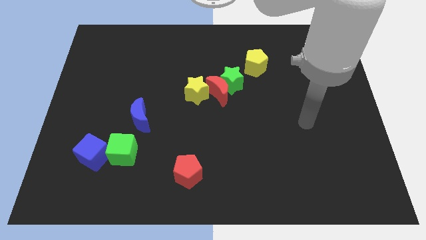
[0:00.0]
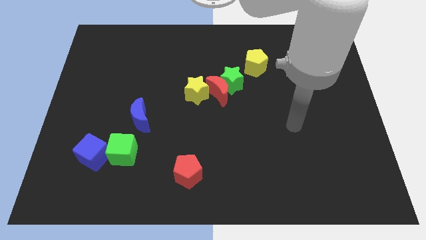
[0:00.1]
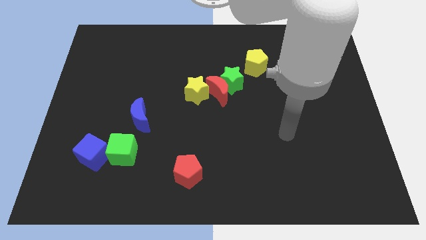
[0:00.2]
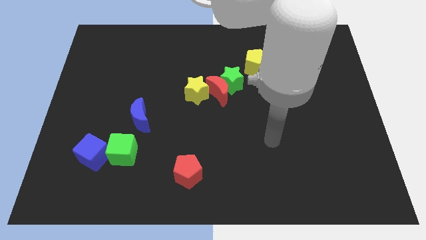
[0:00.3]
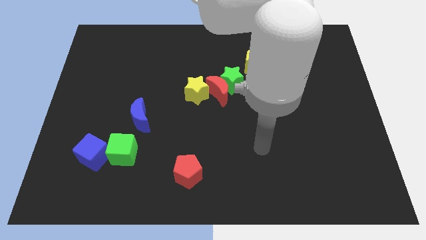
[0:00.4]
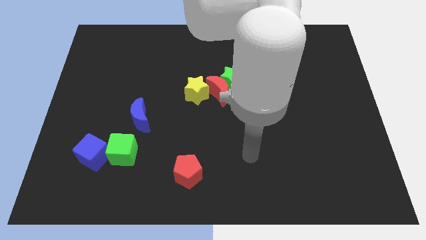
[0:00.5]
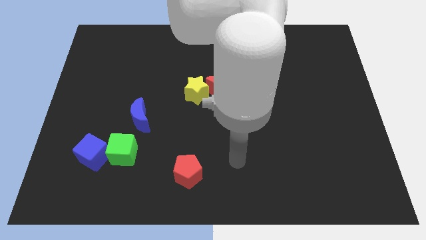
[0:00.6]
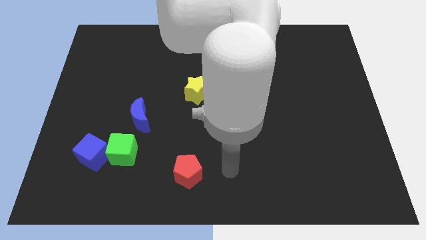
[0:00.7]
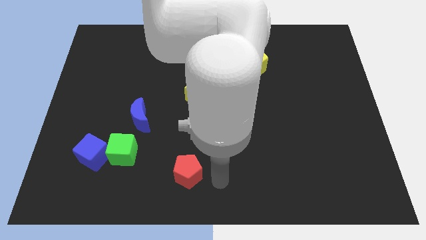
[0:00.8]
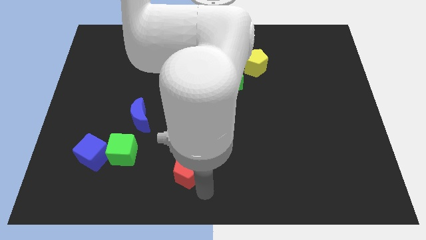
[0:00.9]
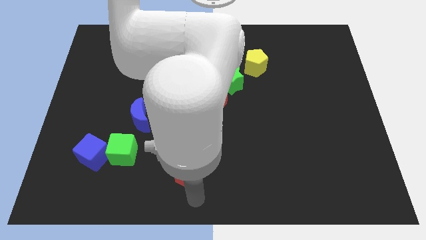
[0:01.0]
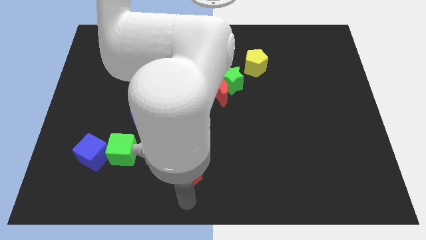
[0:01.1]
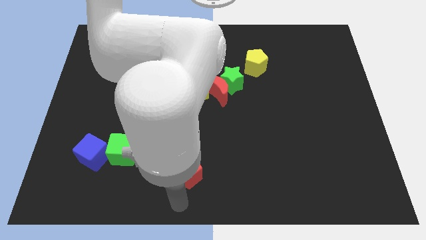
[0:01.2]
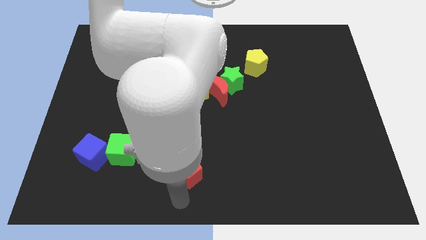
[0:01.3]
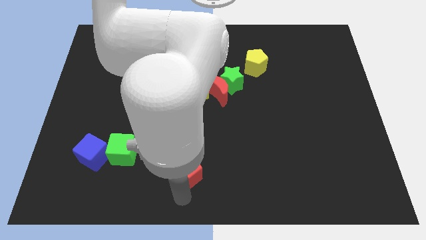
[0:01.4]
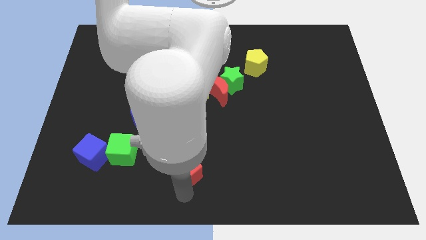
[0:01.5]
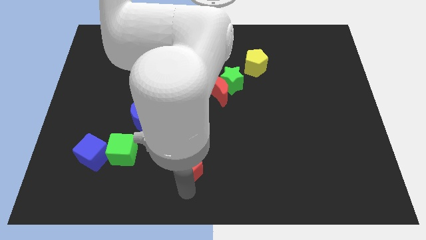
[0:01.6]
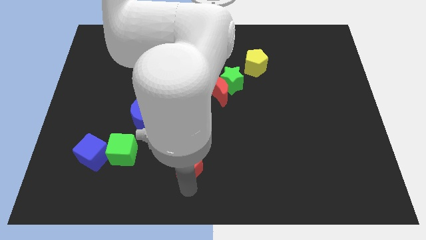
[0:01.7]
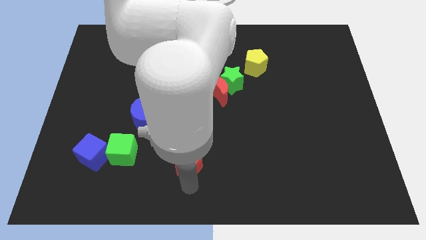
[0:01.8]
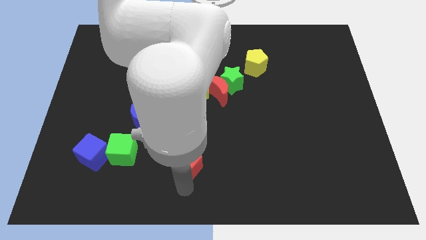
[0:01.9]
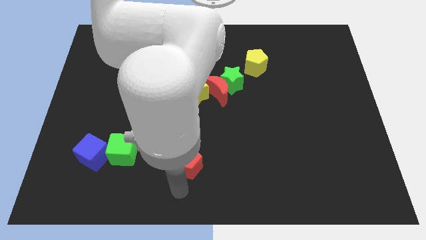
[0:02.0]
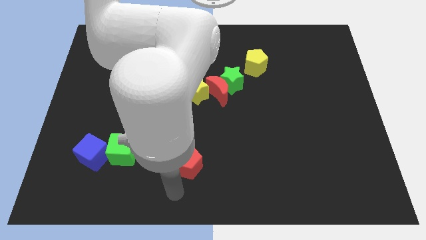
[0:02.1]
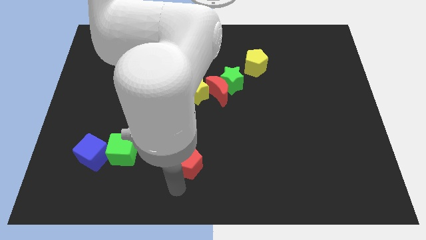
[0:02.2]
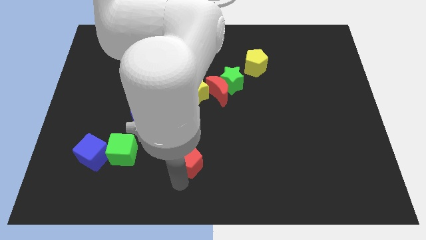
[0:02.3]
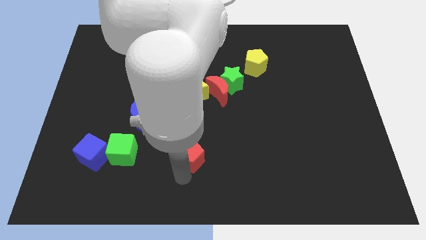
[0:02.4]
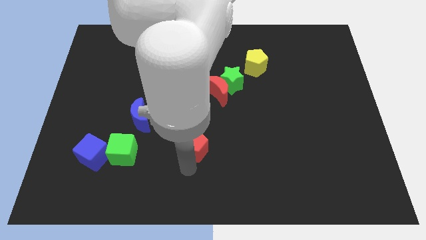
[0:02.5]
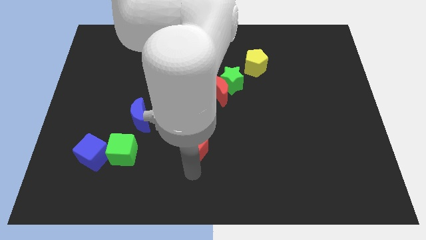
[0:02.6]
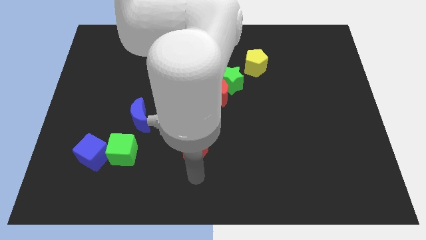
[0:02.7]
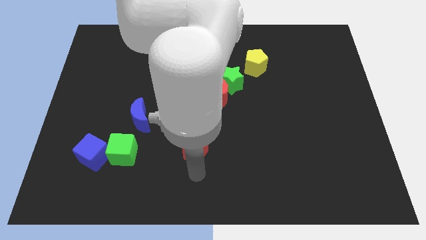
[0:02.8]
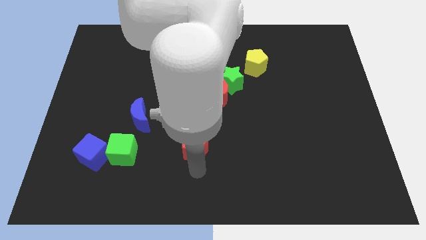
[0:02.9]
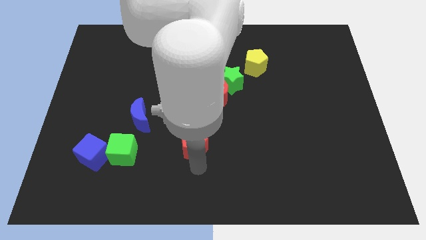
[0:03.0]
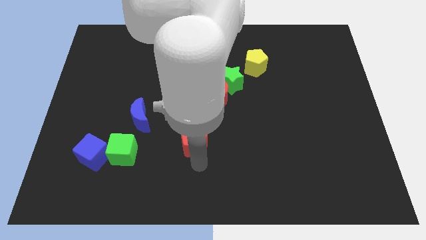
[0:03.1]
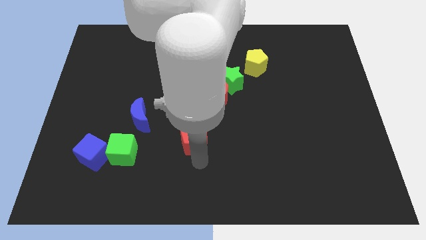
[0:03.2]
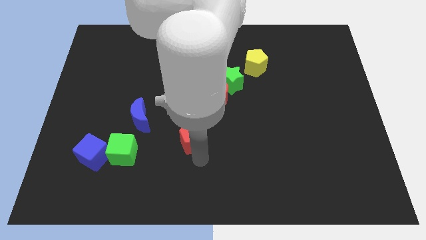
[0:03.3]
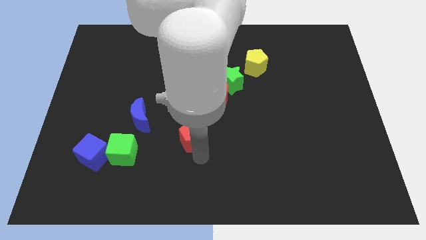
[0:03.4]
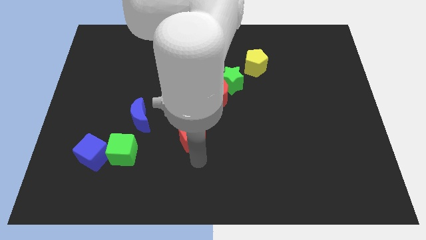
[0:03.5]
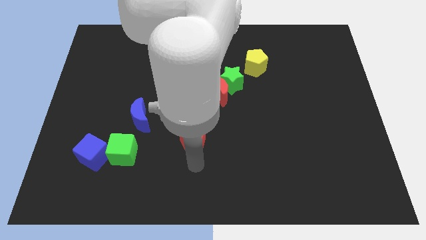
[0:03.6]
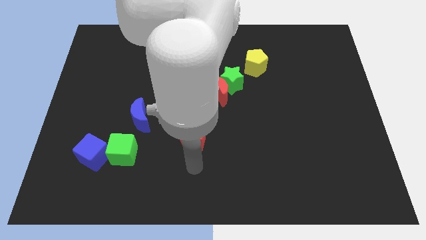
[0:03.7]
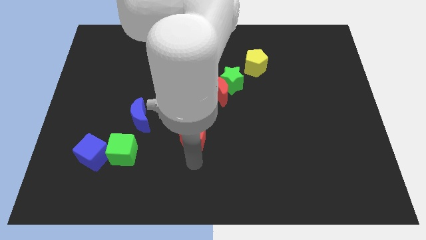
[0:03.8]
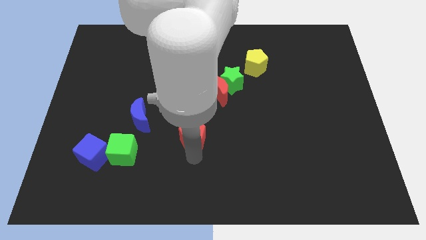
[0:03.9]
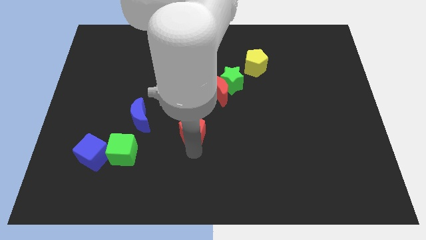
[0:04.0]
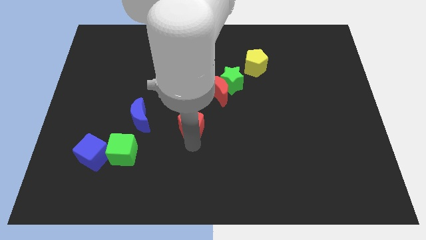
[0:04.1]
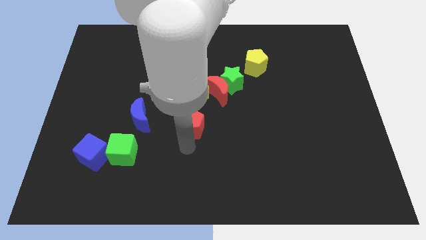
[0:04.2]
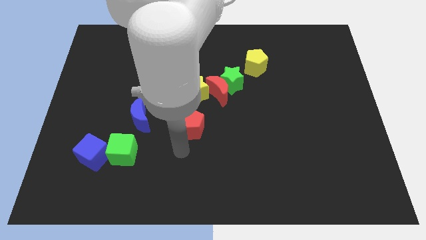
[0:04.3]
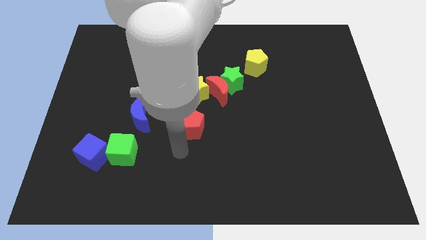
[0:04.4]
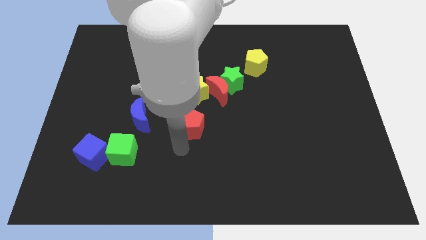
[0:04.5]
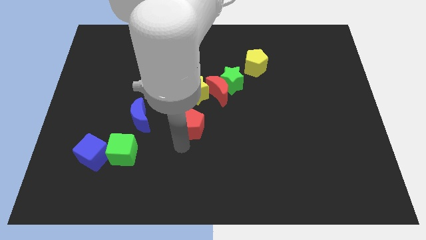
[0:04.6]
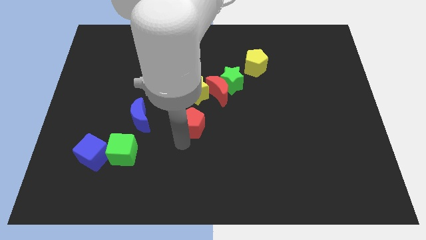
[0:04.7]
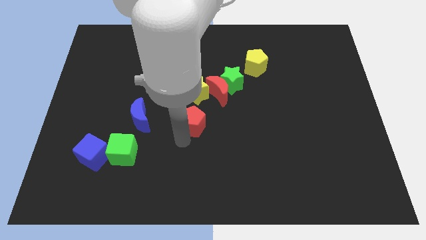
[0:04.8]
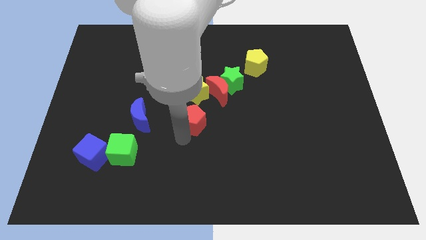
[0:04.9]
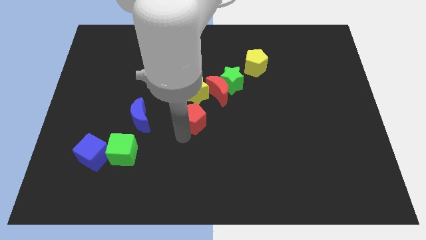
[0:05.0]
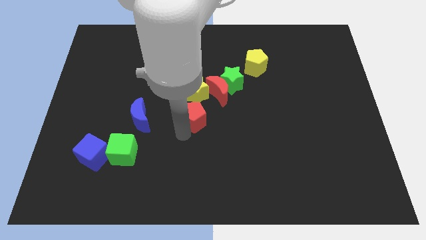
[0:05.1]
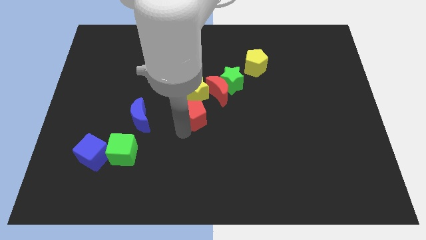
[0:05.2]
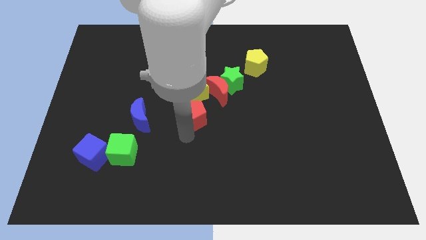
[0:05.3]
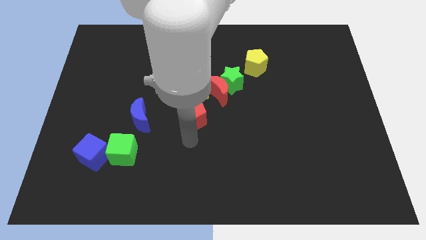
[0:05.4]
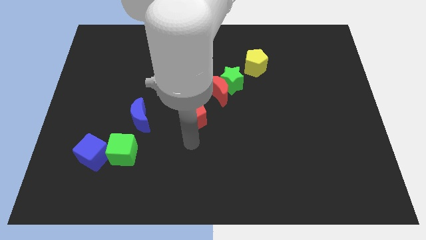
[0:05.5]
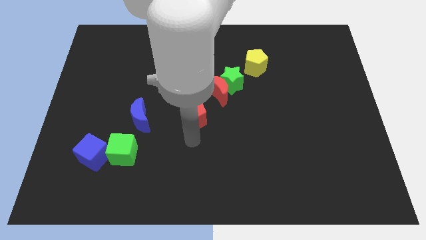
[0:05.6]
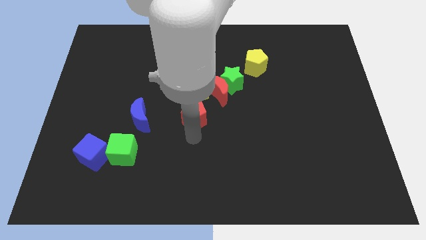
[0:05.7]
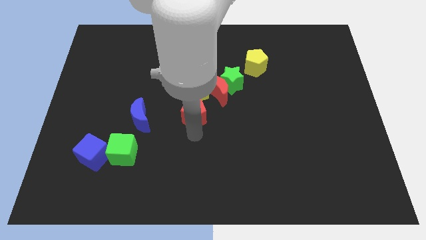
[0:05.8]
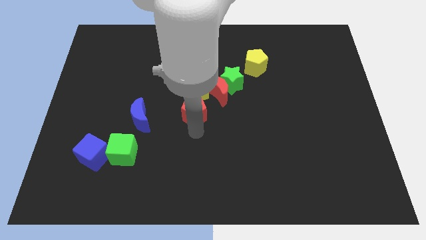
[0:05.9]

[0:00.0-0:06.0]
slide the red pentagon close to the yellow star

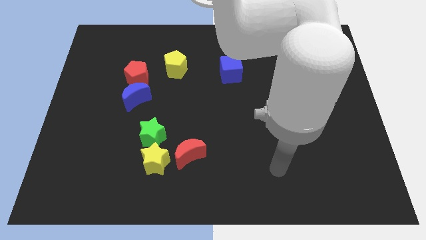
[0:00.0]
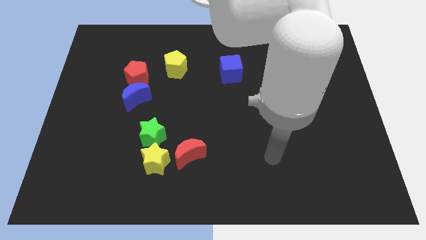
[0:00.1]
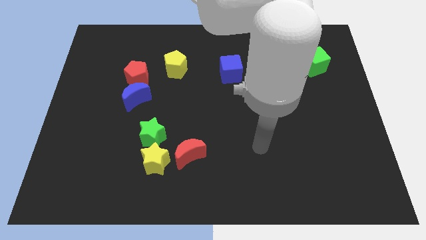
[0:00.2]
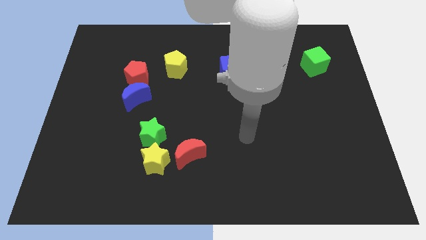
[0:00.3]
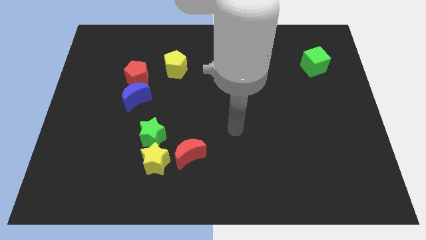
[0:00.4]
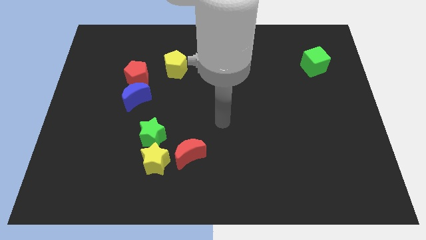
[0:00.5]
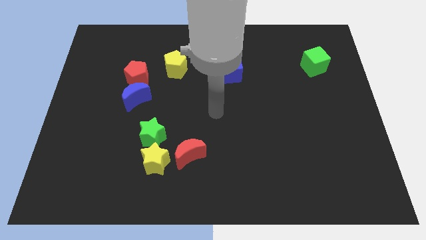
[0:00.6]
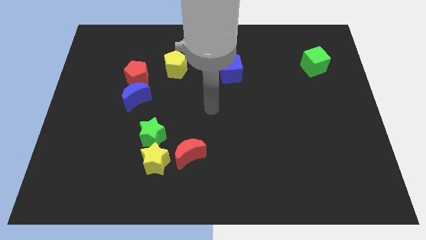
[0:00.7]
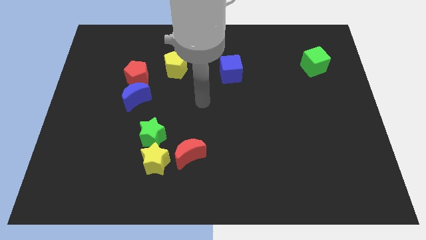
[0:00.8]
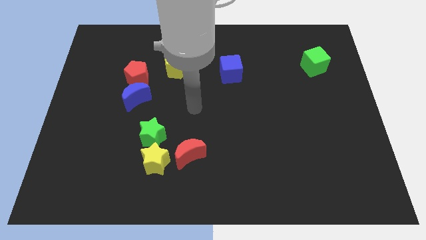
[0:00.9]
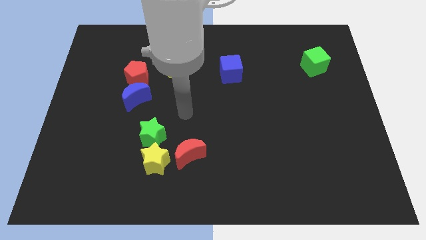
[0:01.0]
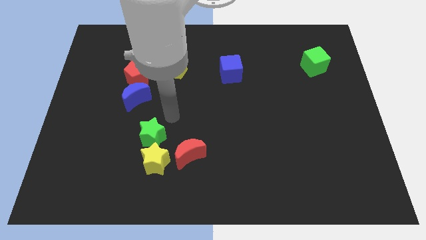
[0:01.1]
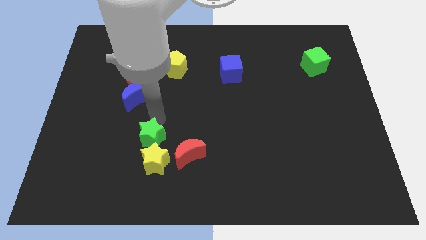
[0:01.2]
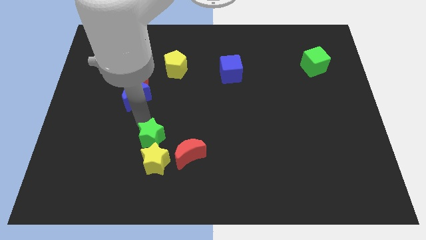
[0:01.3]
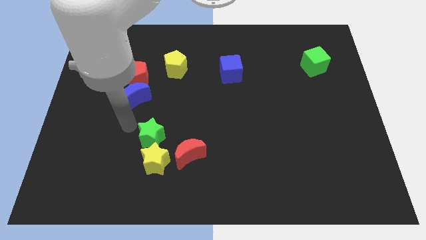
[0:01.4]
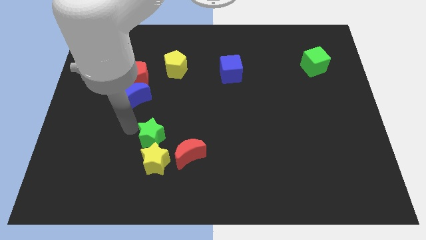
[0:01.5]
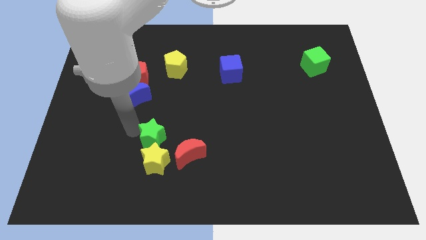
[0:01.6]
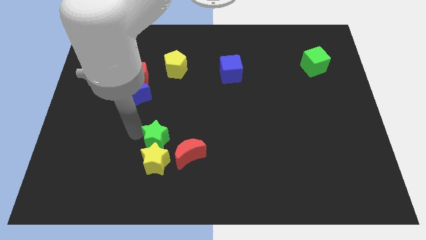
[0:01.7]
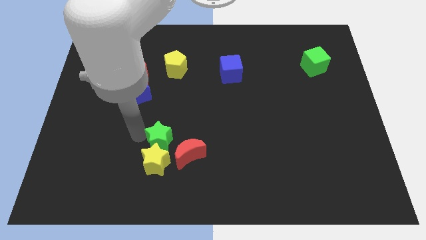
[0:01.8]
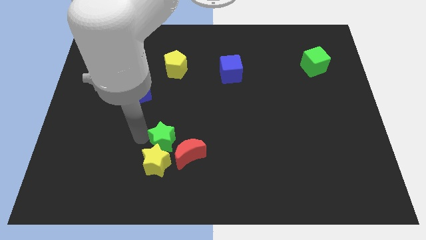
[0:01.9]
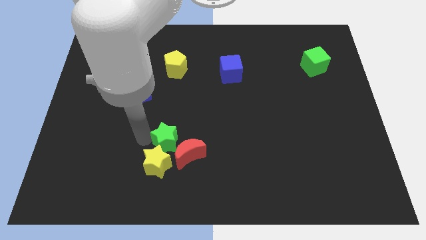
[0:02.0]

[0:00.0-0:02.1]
move the green star next to the red moon
